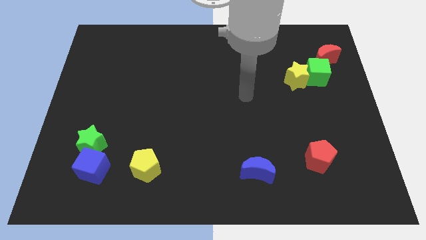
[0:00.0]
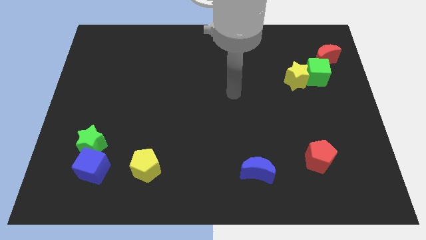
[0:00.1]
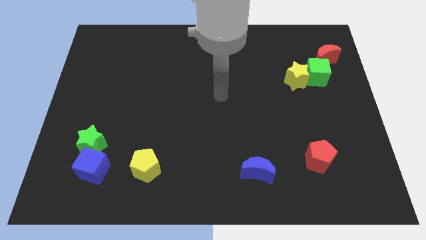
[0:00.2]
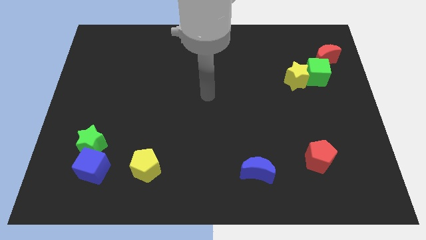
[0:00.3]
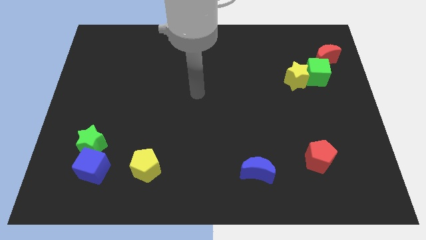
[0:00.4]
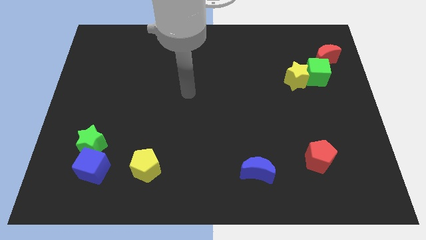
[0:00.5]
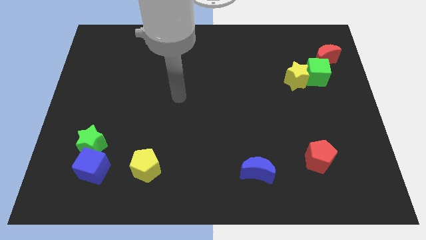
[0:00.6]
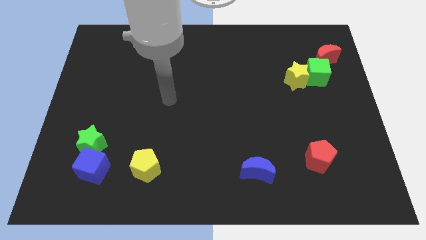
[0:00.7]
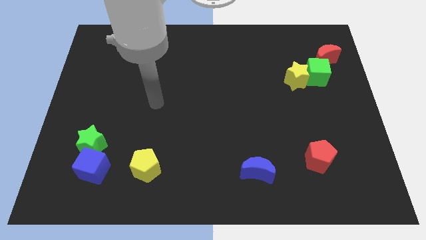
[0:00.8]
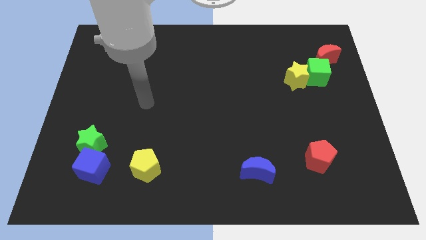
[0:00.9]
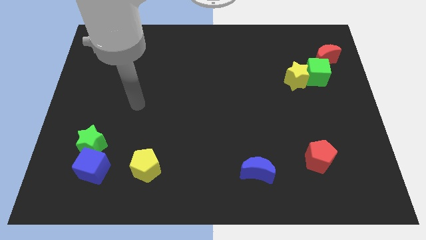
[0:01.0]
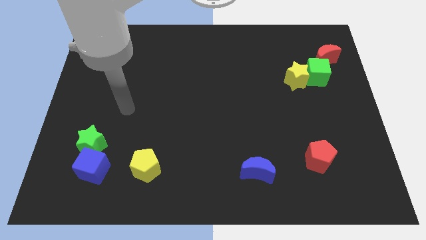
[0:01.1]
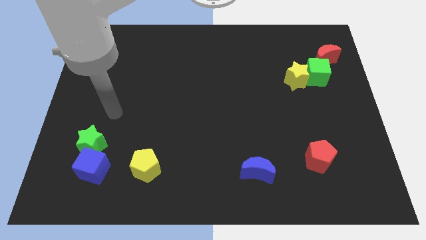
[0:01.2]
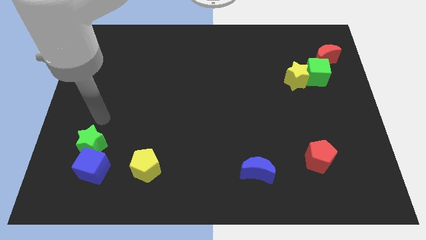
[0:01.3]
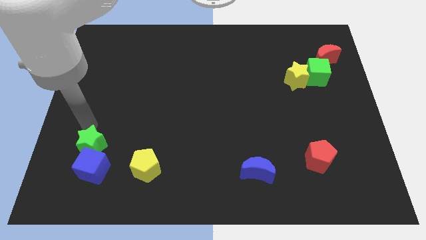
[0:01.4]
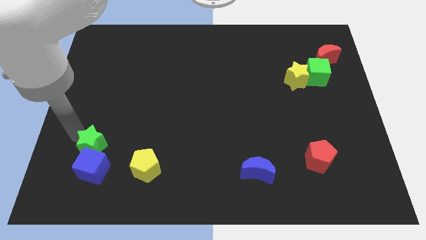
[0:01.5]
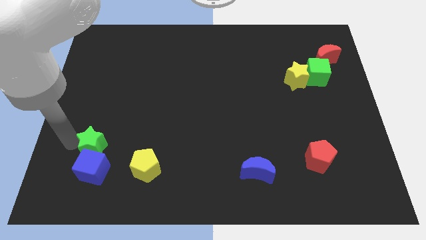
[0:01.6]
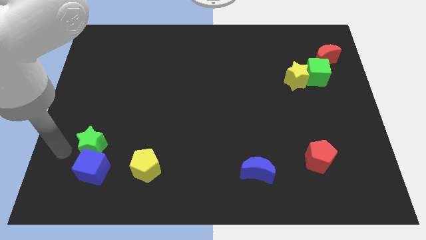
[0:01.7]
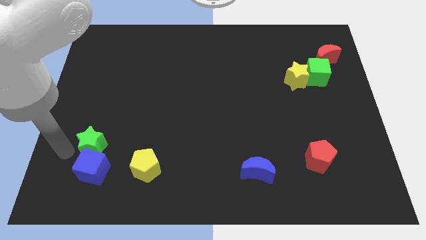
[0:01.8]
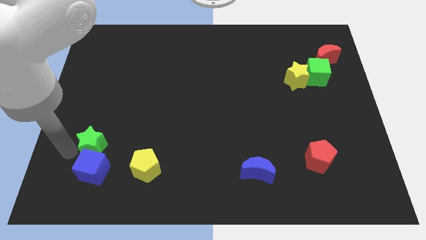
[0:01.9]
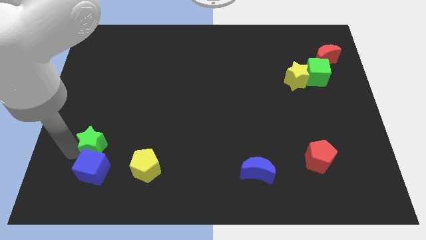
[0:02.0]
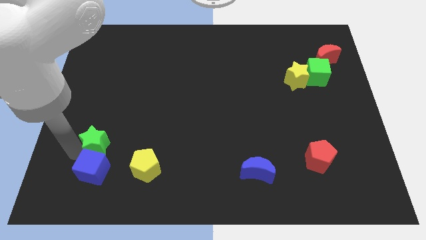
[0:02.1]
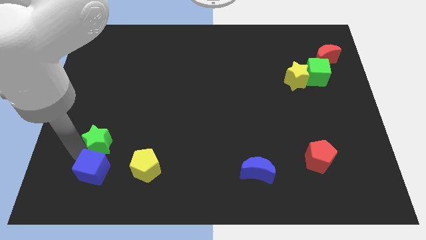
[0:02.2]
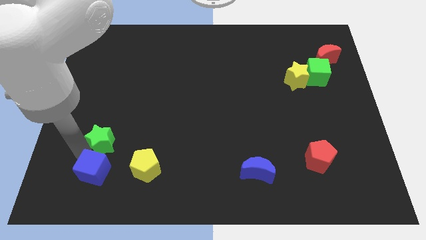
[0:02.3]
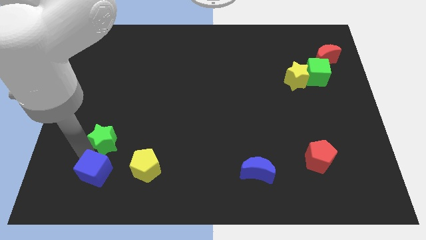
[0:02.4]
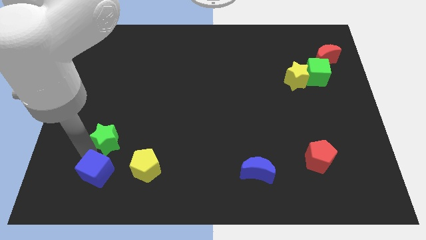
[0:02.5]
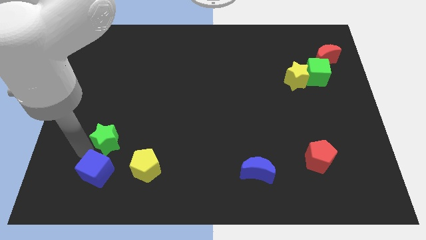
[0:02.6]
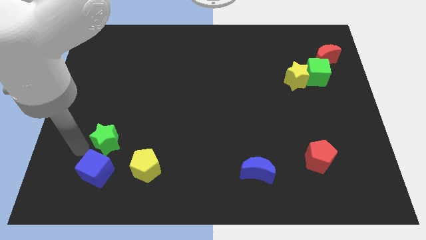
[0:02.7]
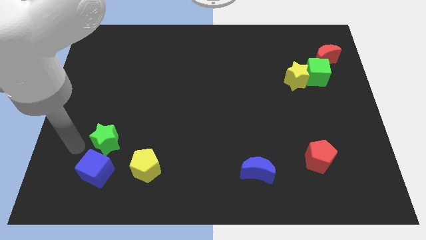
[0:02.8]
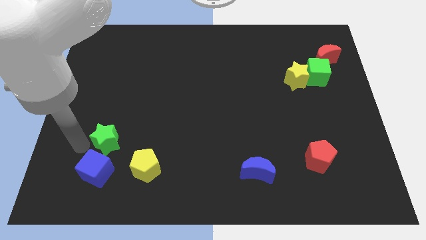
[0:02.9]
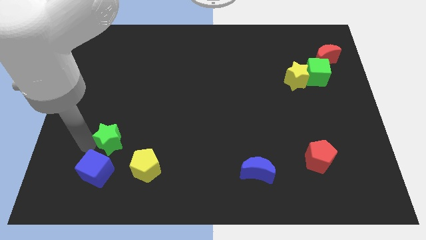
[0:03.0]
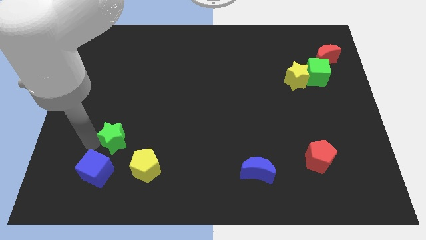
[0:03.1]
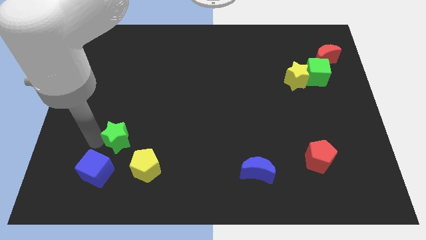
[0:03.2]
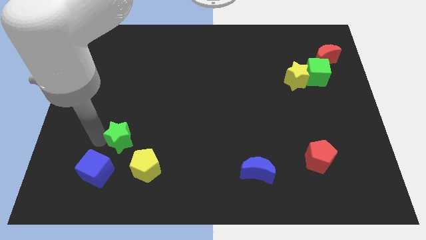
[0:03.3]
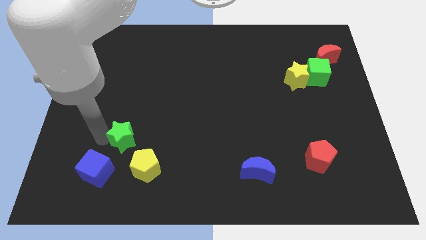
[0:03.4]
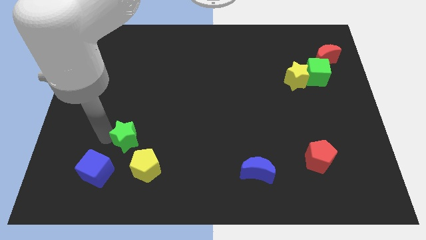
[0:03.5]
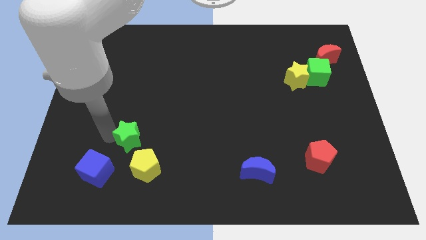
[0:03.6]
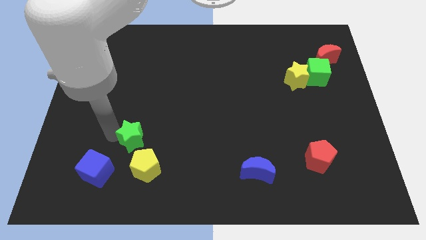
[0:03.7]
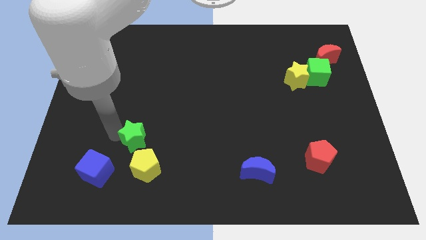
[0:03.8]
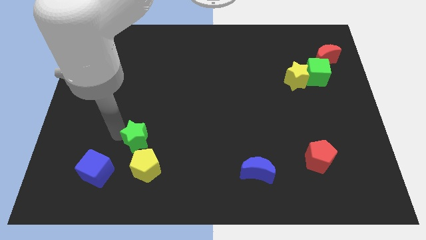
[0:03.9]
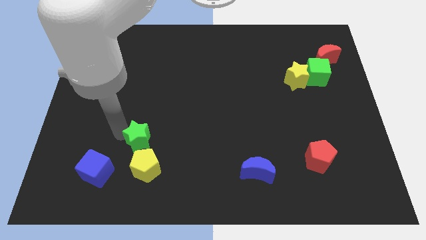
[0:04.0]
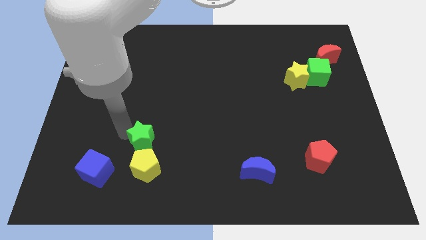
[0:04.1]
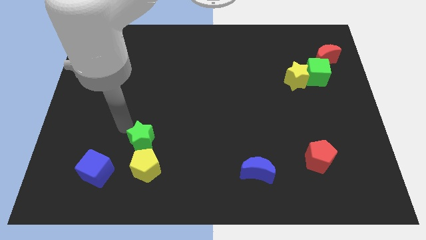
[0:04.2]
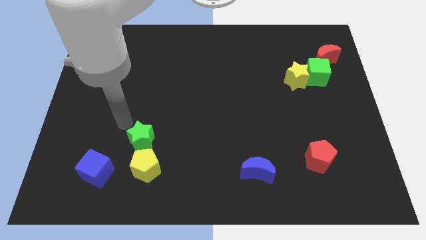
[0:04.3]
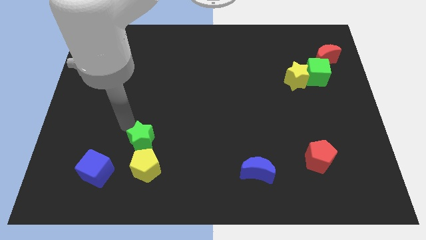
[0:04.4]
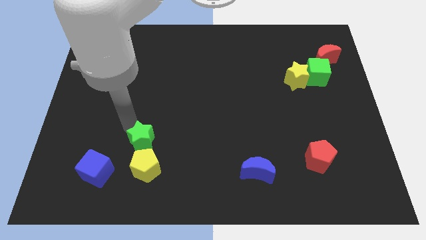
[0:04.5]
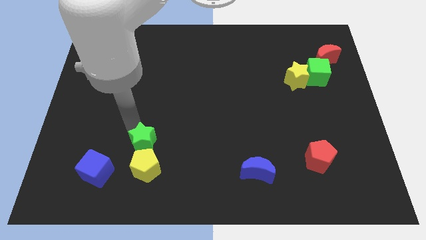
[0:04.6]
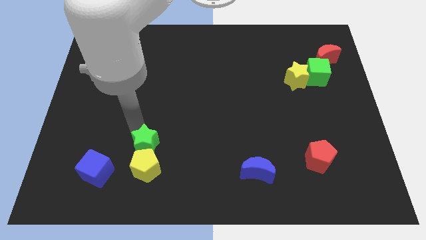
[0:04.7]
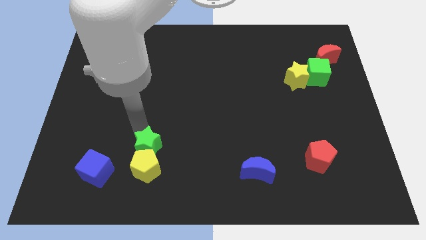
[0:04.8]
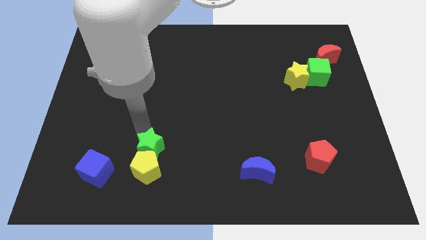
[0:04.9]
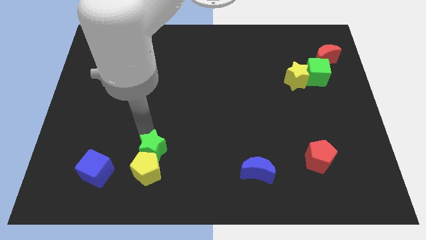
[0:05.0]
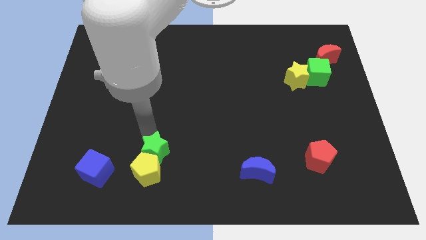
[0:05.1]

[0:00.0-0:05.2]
put the green star right of the blue cube

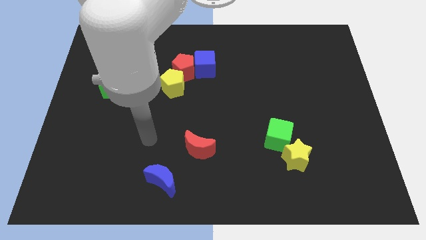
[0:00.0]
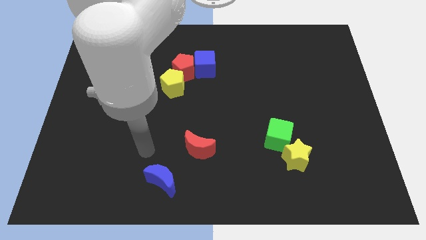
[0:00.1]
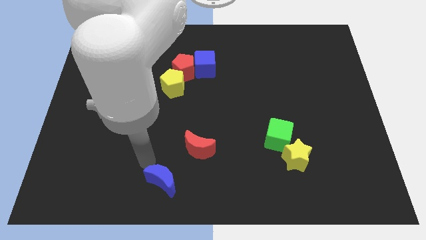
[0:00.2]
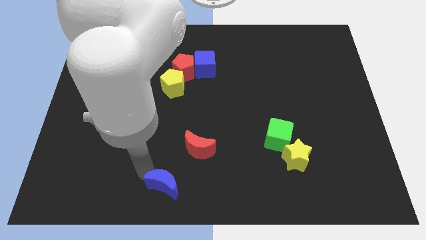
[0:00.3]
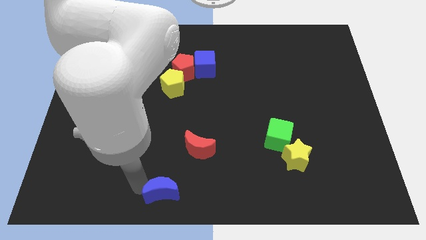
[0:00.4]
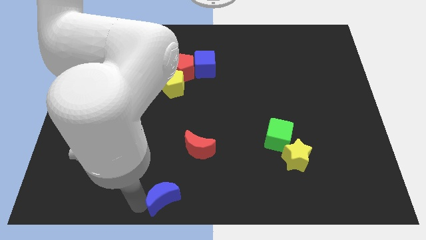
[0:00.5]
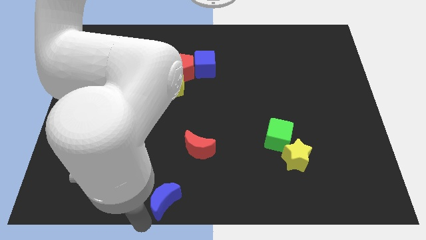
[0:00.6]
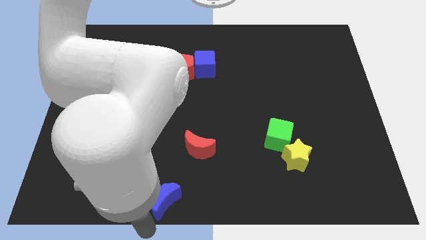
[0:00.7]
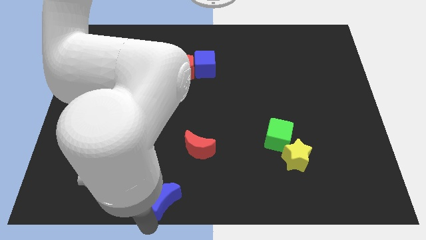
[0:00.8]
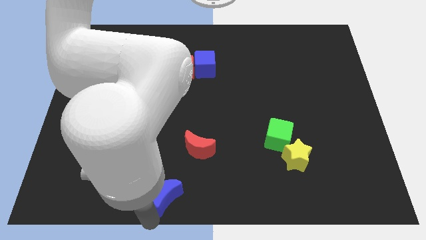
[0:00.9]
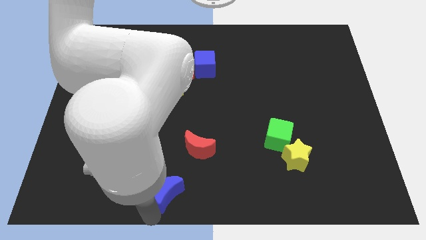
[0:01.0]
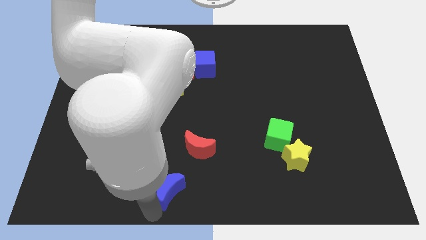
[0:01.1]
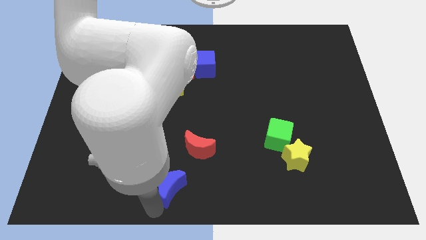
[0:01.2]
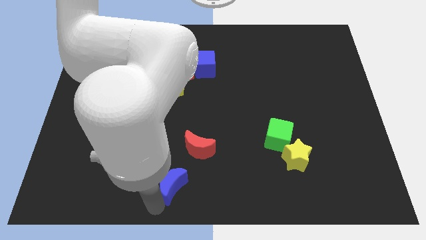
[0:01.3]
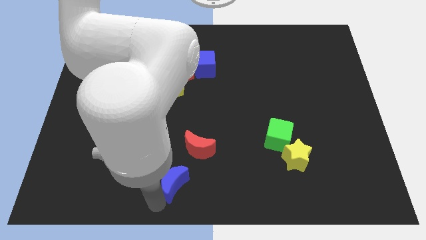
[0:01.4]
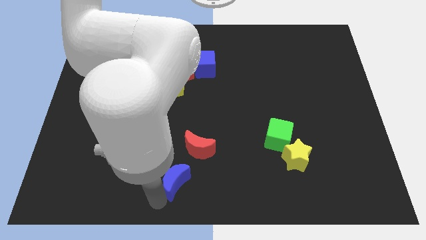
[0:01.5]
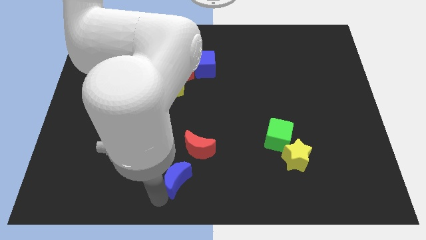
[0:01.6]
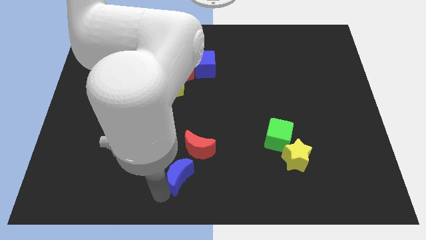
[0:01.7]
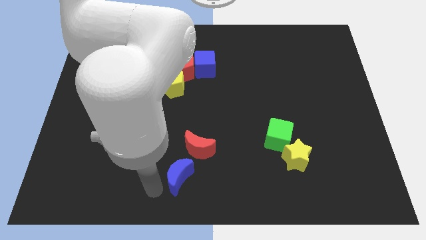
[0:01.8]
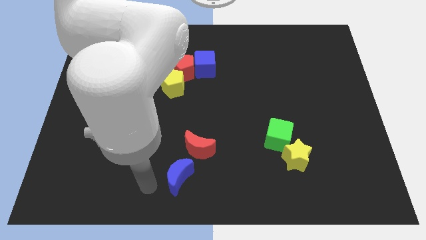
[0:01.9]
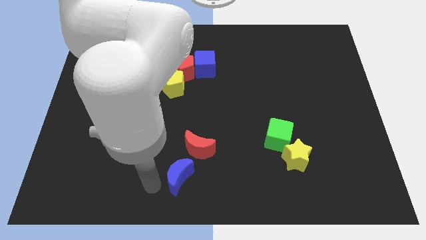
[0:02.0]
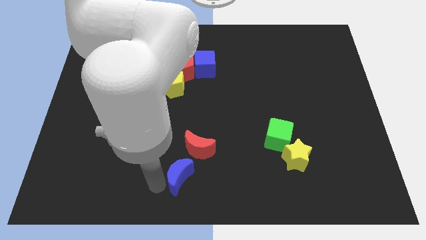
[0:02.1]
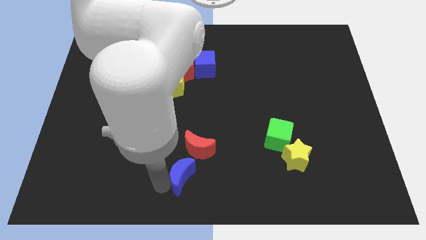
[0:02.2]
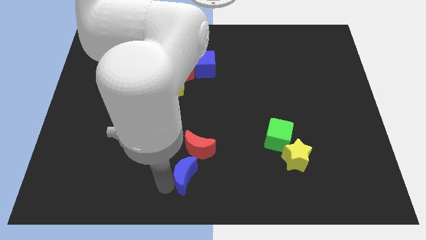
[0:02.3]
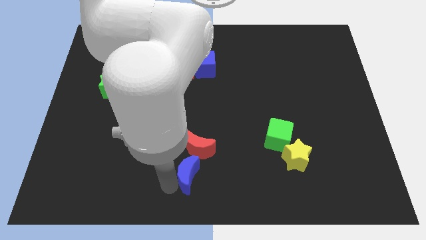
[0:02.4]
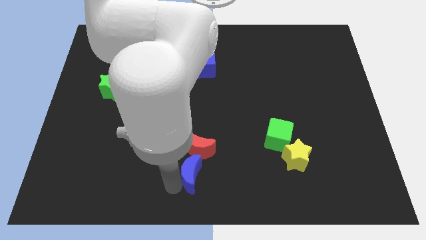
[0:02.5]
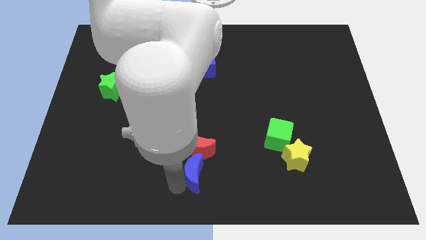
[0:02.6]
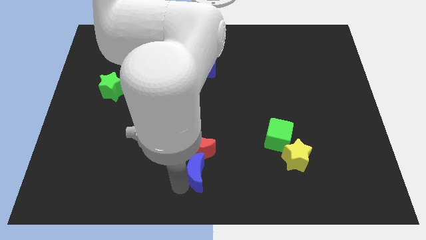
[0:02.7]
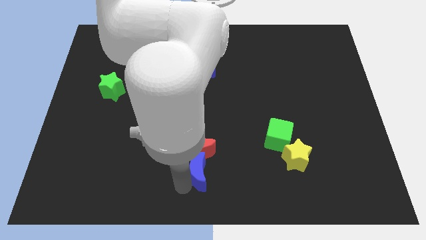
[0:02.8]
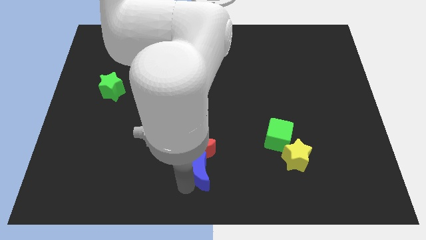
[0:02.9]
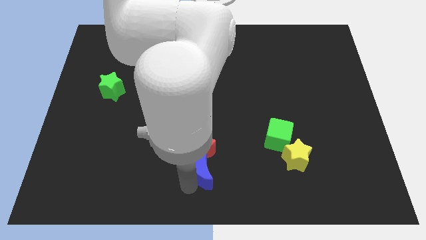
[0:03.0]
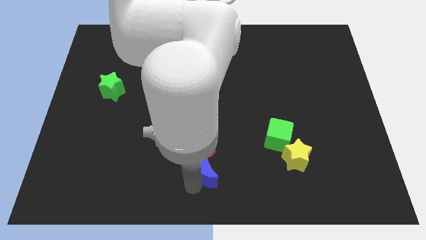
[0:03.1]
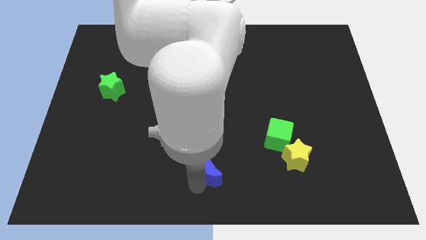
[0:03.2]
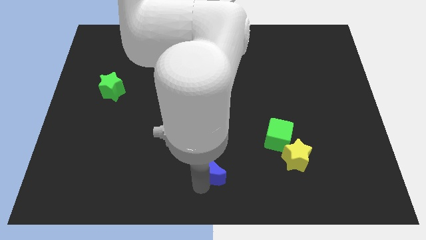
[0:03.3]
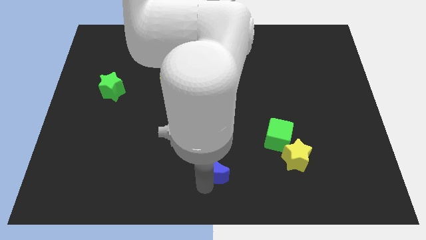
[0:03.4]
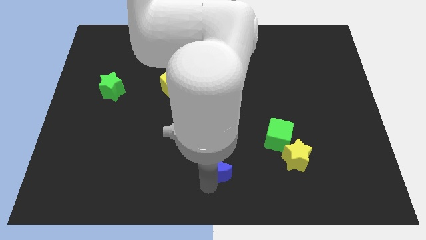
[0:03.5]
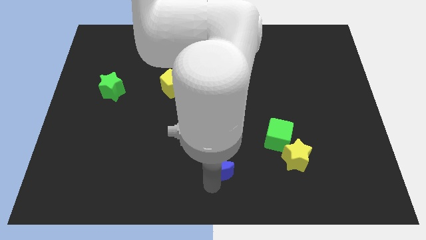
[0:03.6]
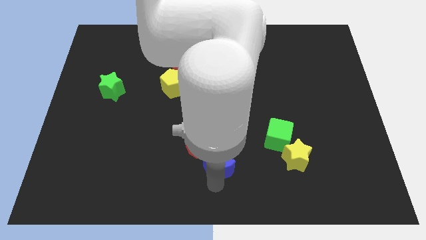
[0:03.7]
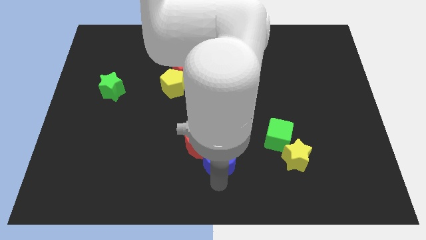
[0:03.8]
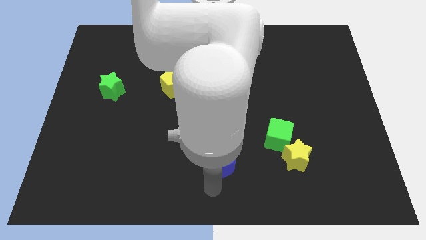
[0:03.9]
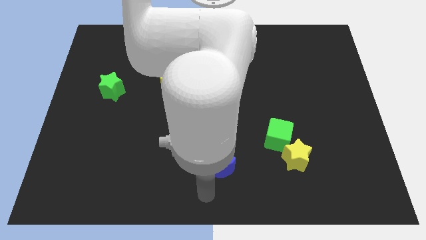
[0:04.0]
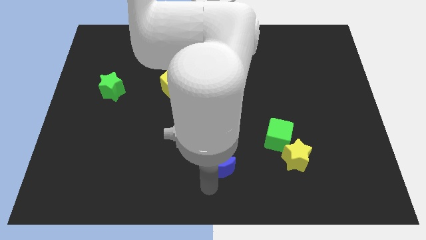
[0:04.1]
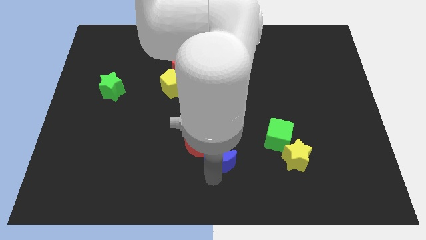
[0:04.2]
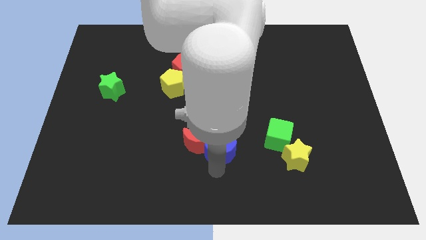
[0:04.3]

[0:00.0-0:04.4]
slide the blue moon just left of the green cube
